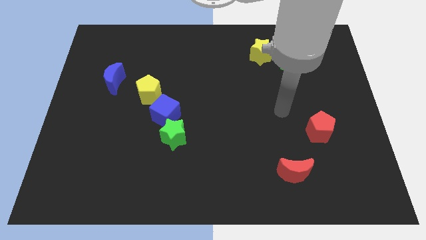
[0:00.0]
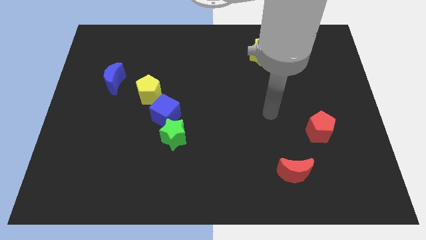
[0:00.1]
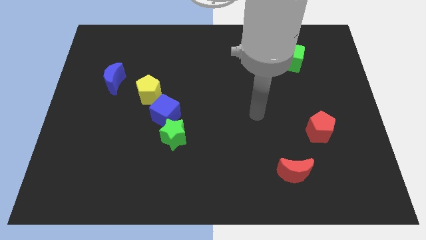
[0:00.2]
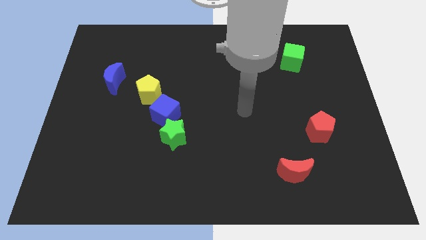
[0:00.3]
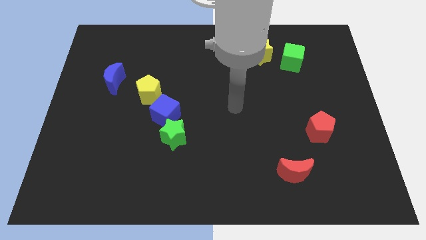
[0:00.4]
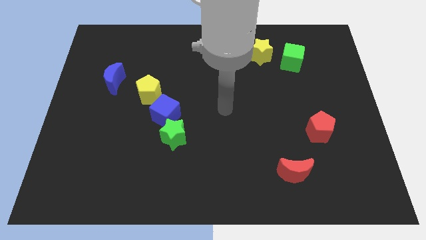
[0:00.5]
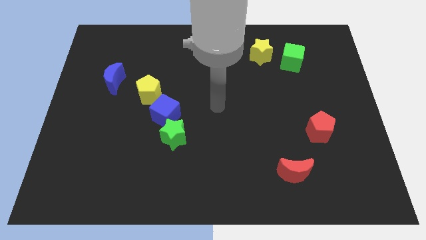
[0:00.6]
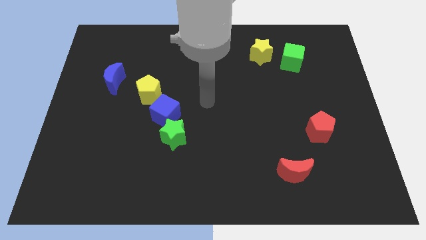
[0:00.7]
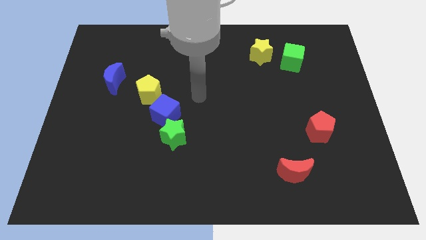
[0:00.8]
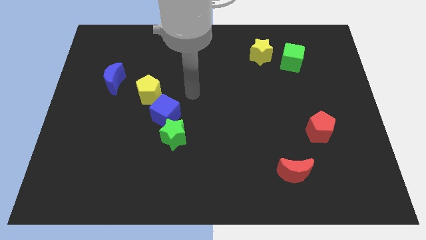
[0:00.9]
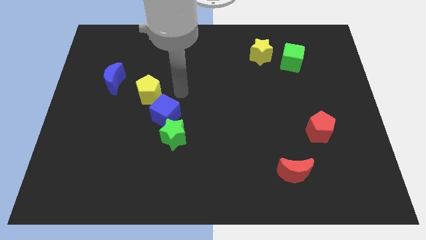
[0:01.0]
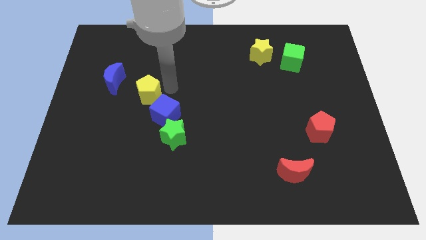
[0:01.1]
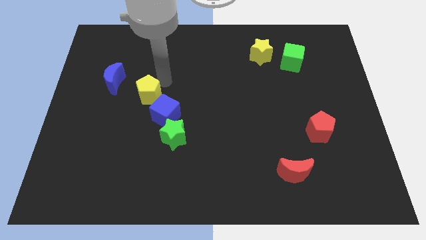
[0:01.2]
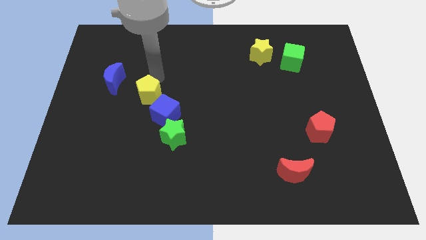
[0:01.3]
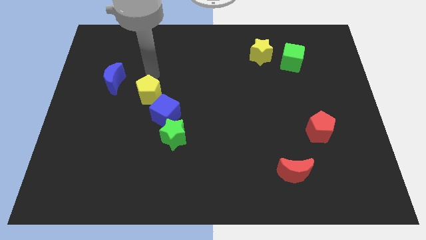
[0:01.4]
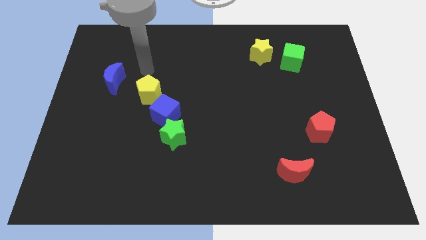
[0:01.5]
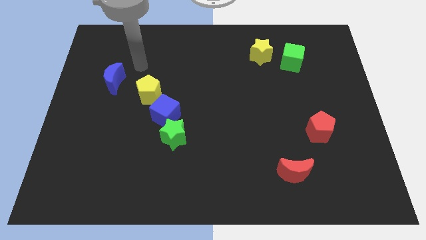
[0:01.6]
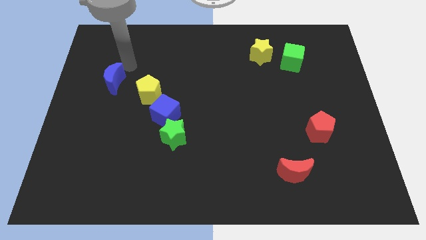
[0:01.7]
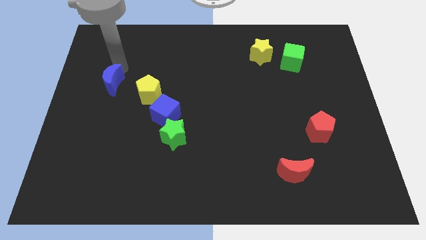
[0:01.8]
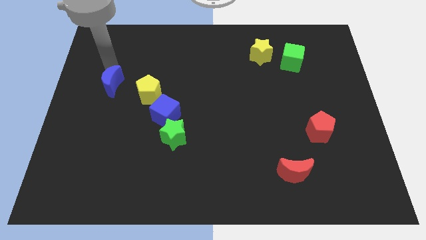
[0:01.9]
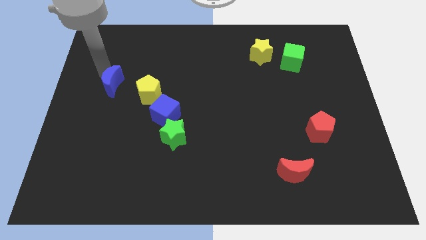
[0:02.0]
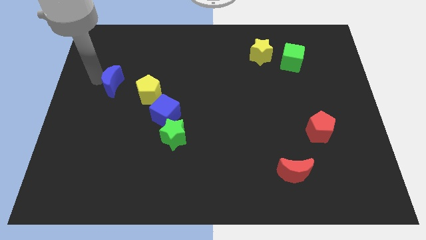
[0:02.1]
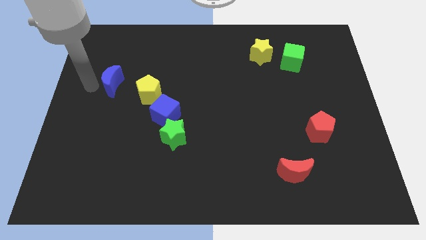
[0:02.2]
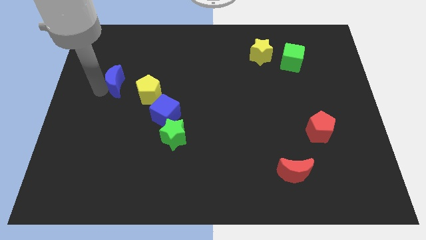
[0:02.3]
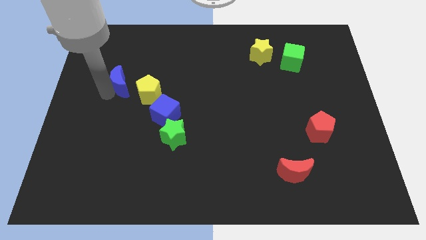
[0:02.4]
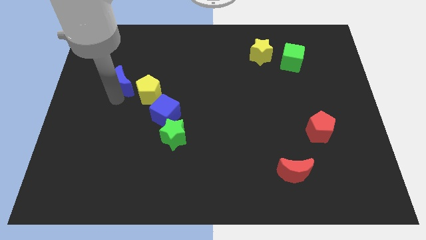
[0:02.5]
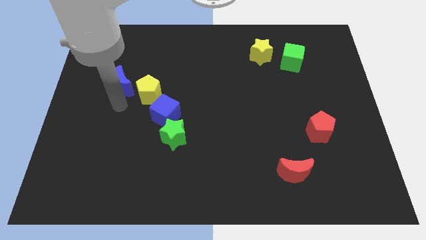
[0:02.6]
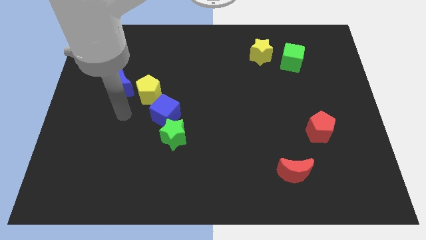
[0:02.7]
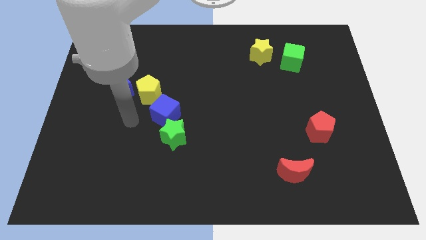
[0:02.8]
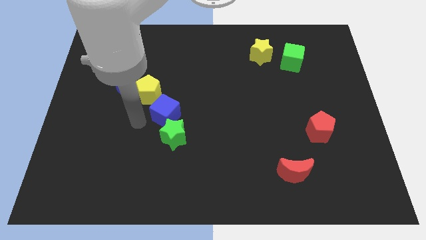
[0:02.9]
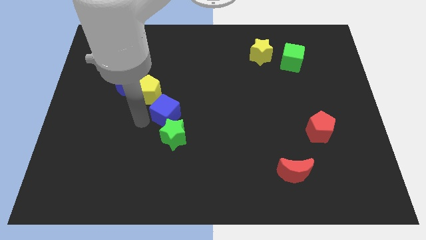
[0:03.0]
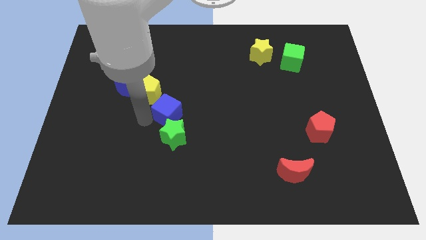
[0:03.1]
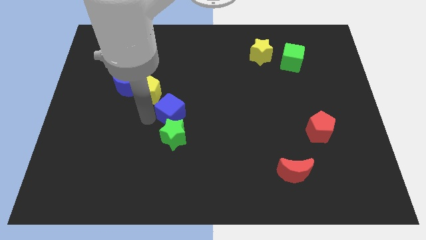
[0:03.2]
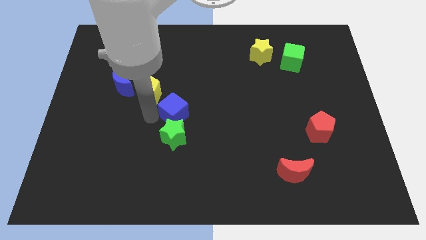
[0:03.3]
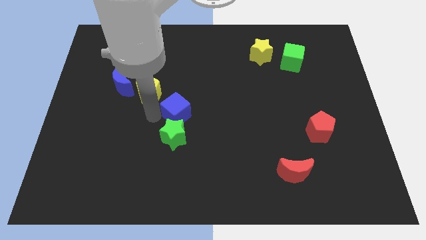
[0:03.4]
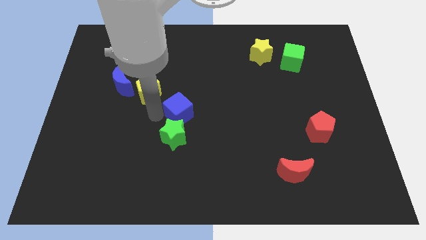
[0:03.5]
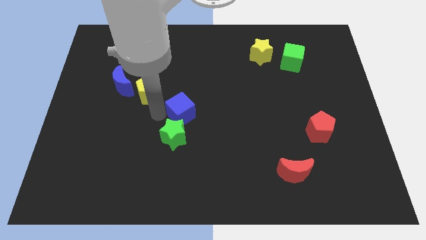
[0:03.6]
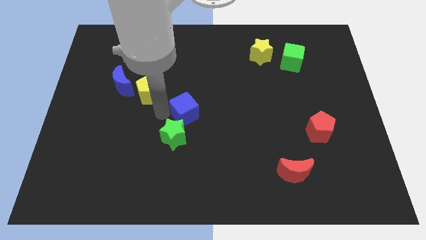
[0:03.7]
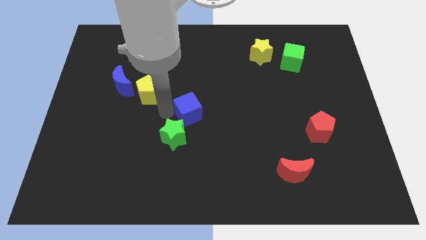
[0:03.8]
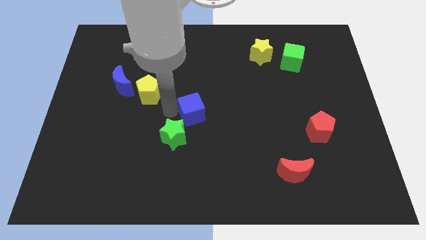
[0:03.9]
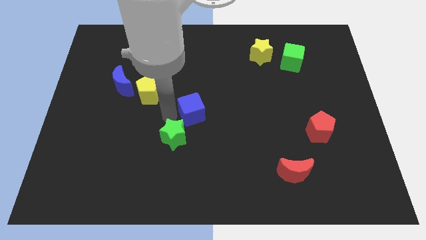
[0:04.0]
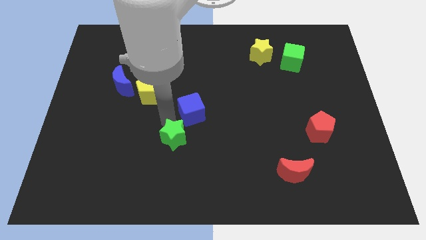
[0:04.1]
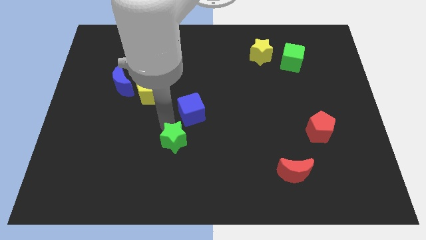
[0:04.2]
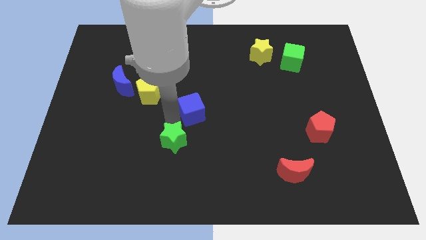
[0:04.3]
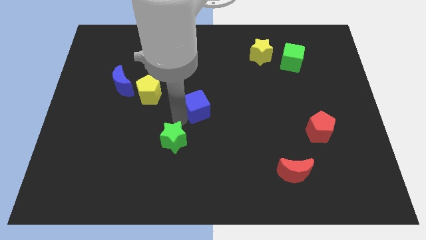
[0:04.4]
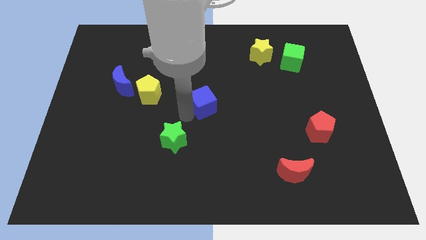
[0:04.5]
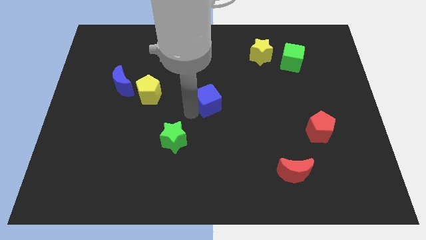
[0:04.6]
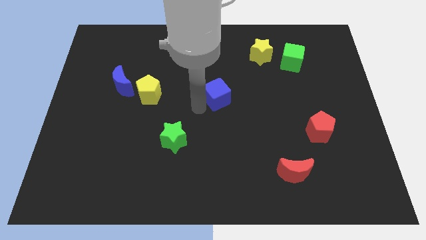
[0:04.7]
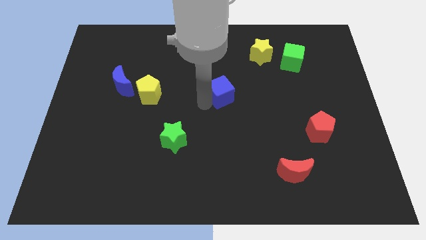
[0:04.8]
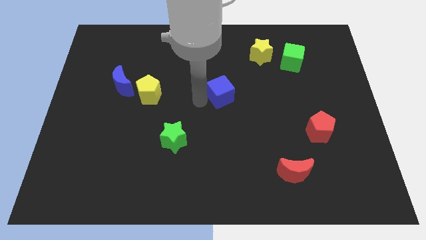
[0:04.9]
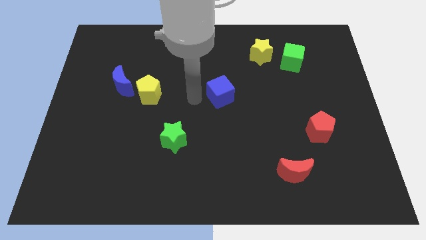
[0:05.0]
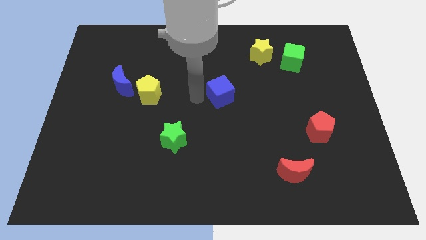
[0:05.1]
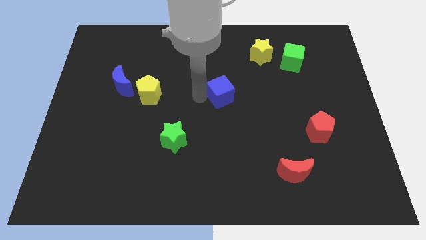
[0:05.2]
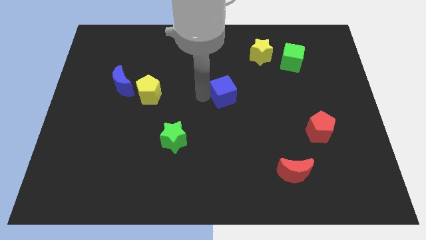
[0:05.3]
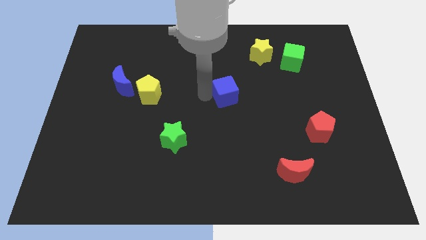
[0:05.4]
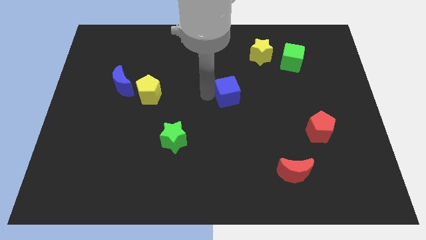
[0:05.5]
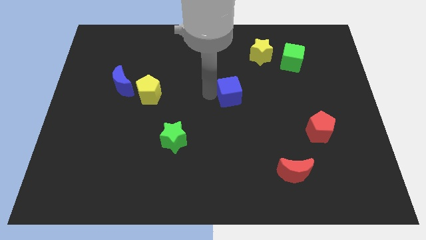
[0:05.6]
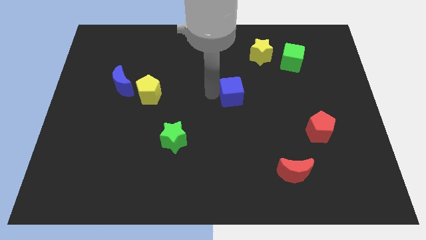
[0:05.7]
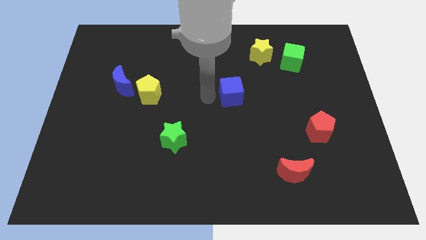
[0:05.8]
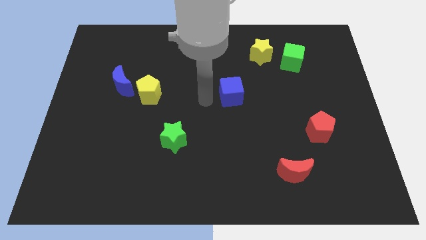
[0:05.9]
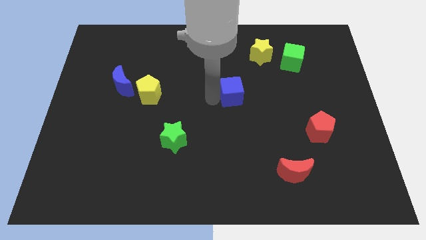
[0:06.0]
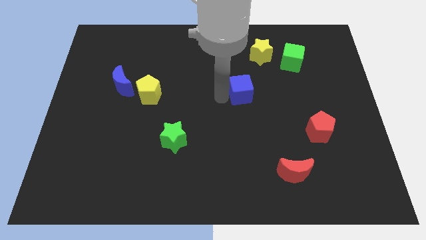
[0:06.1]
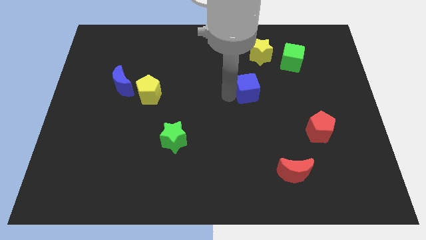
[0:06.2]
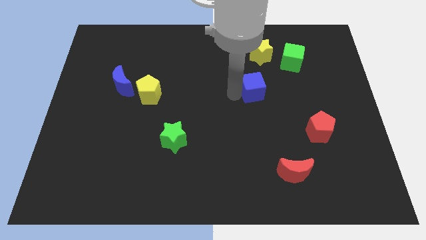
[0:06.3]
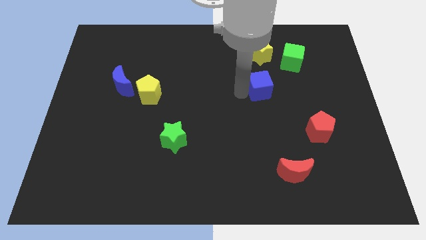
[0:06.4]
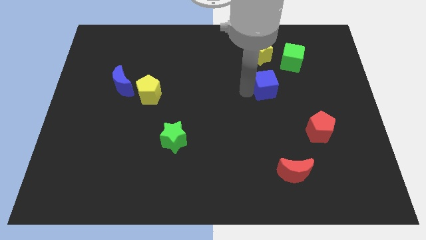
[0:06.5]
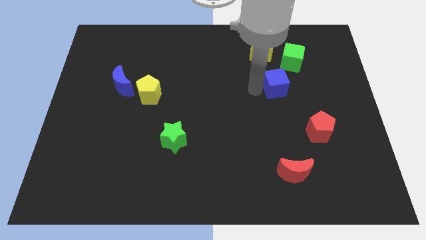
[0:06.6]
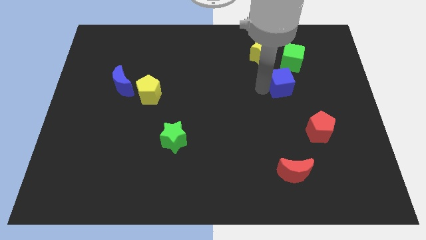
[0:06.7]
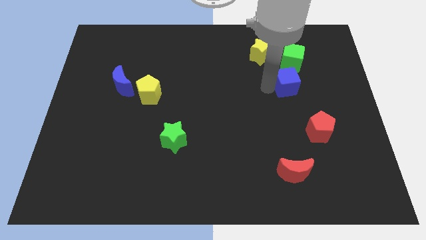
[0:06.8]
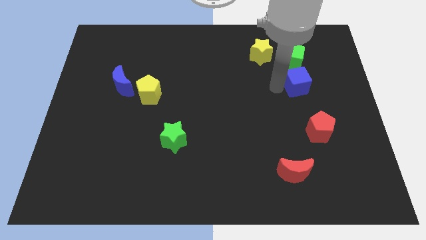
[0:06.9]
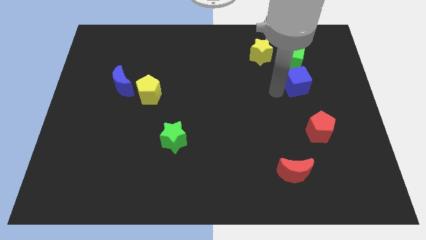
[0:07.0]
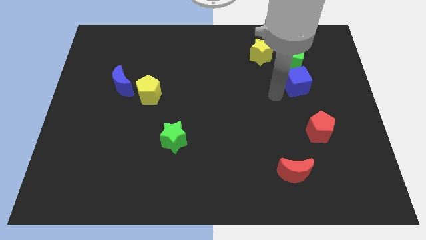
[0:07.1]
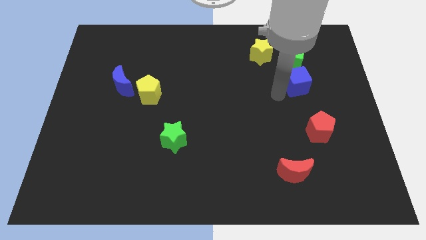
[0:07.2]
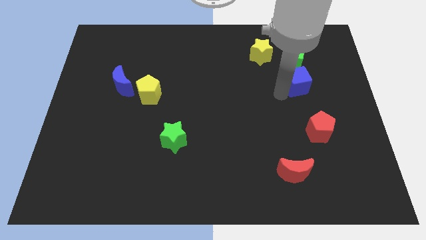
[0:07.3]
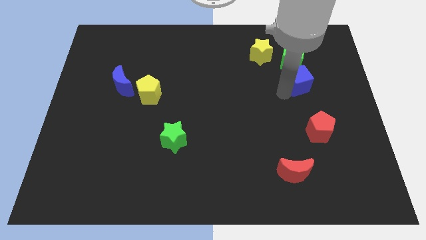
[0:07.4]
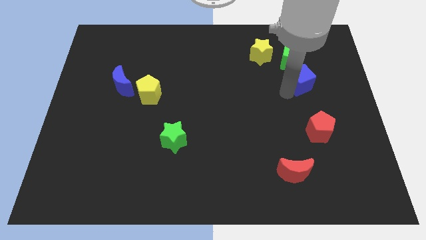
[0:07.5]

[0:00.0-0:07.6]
slide the blue cube diagonally down and to the right of the green cube
